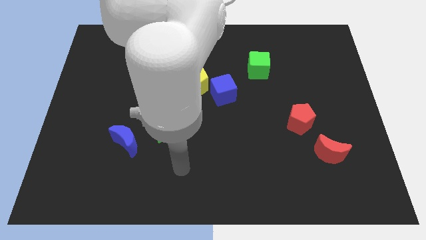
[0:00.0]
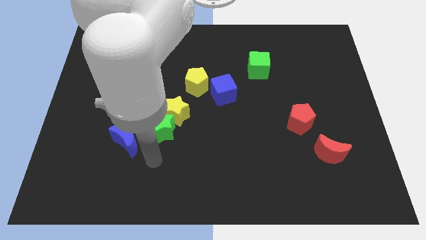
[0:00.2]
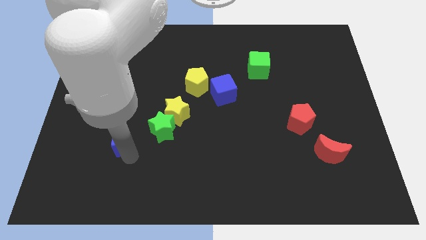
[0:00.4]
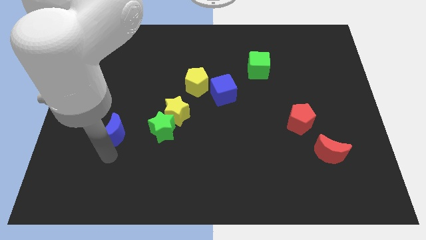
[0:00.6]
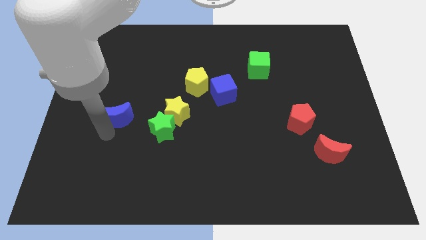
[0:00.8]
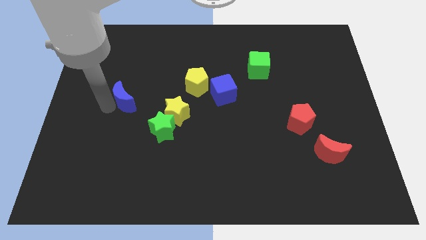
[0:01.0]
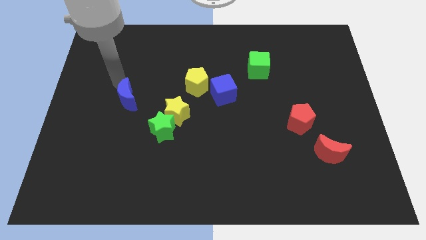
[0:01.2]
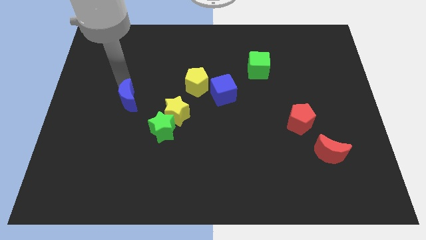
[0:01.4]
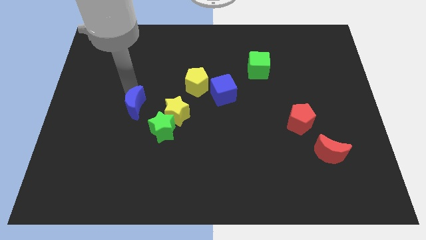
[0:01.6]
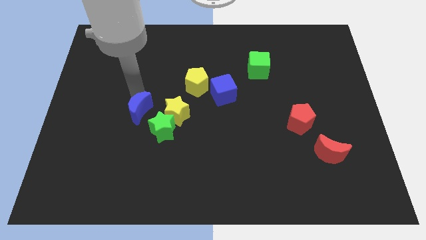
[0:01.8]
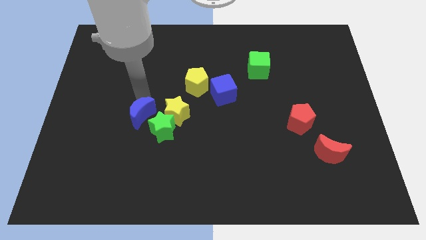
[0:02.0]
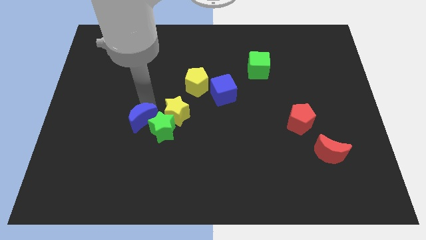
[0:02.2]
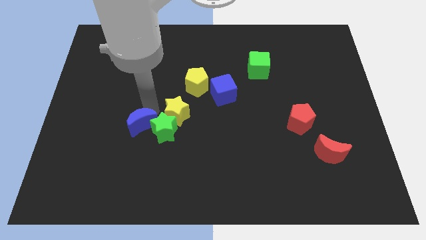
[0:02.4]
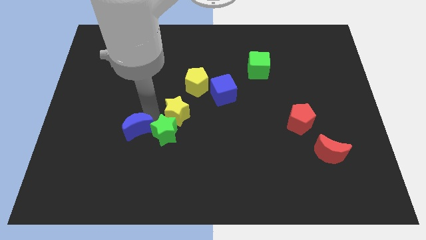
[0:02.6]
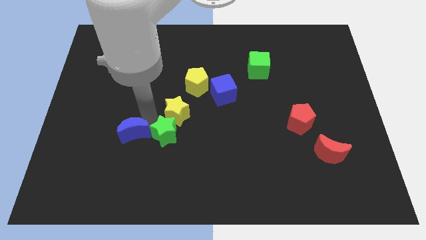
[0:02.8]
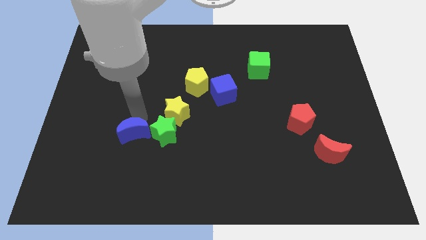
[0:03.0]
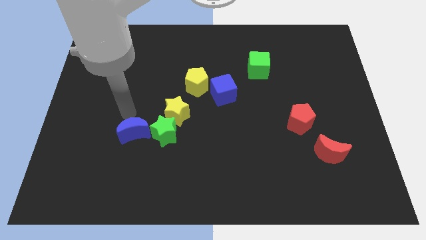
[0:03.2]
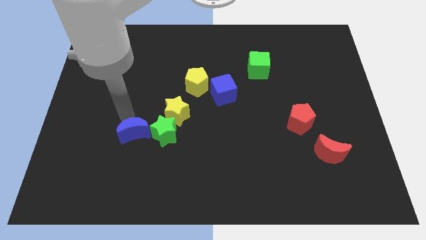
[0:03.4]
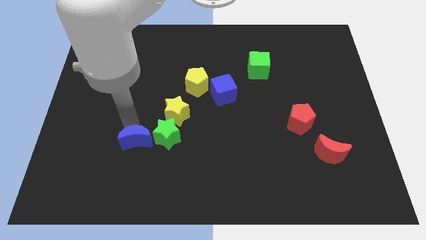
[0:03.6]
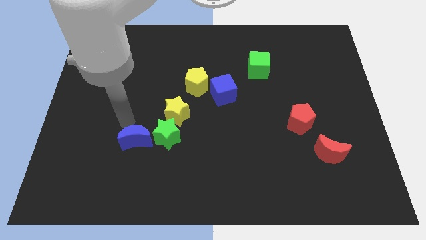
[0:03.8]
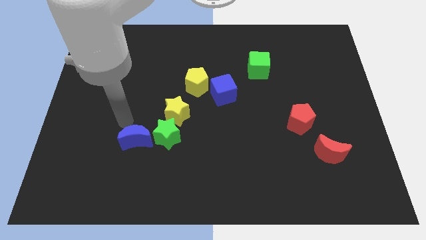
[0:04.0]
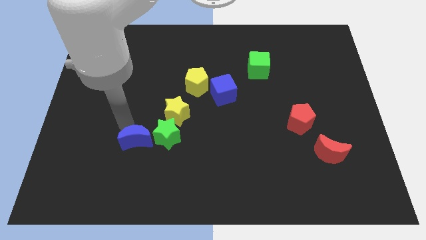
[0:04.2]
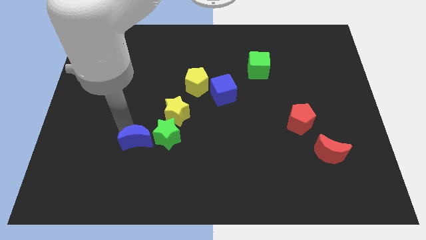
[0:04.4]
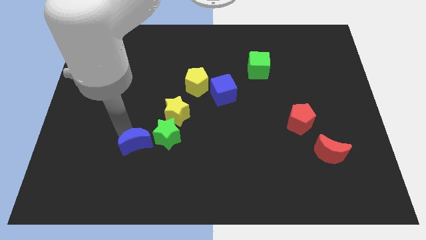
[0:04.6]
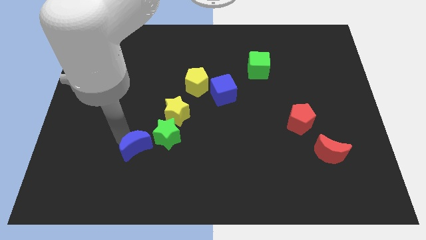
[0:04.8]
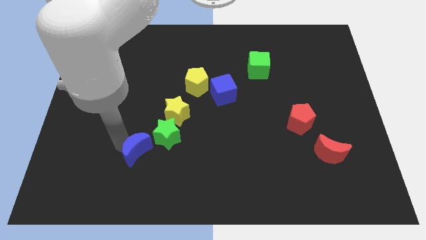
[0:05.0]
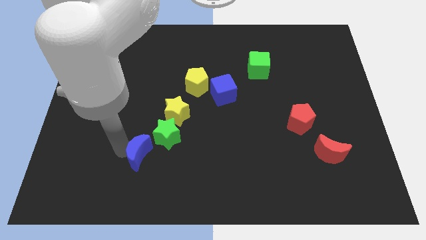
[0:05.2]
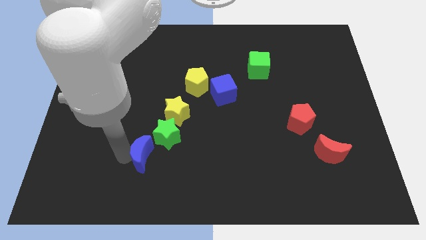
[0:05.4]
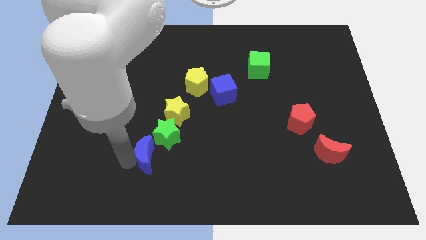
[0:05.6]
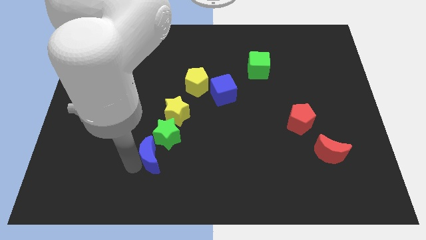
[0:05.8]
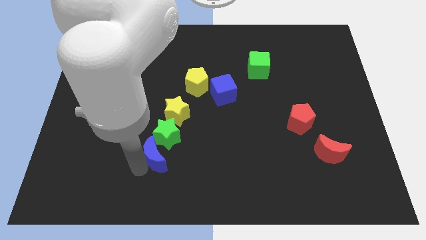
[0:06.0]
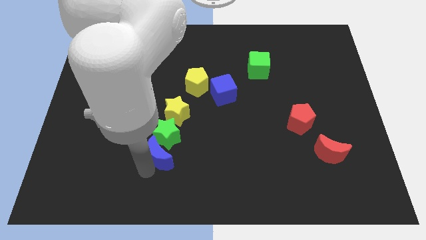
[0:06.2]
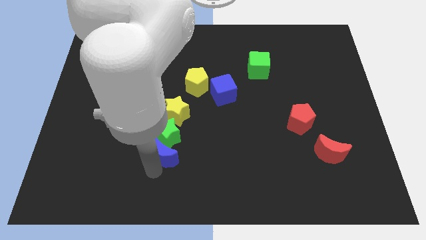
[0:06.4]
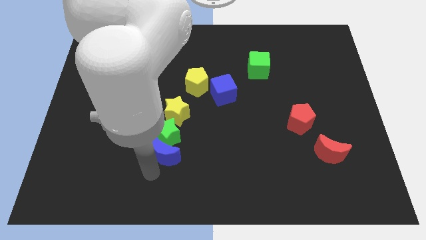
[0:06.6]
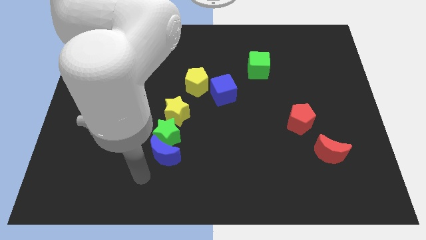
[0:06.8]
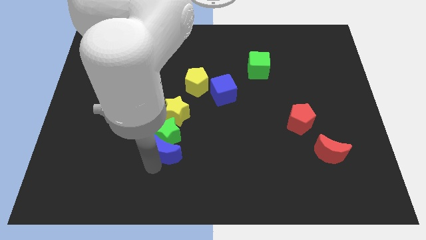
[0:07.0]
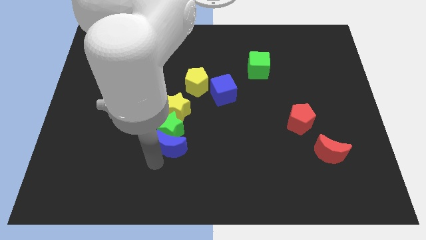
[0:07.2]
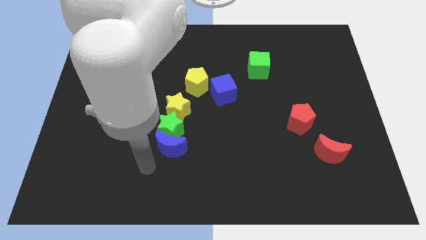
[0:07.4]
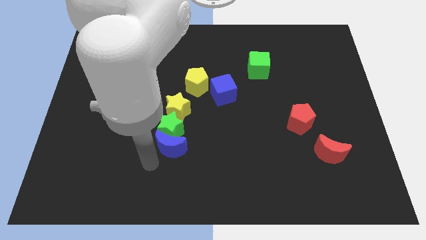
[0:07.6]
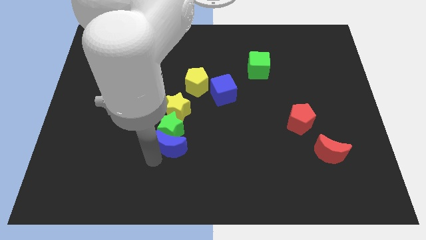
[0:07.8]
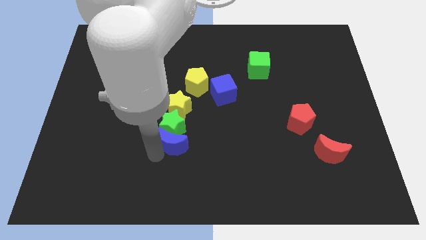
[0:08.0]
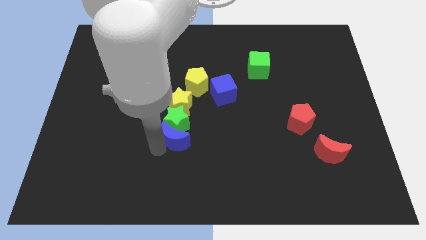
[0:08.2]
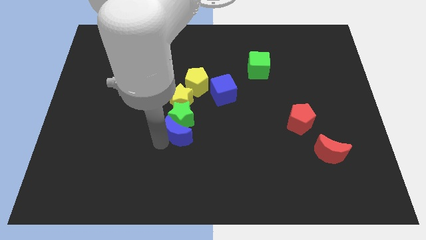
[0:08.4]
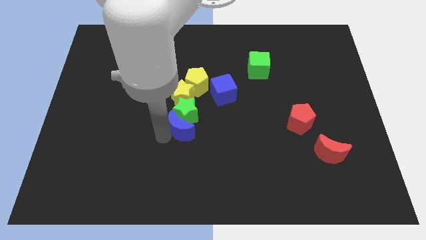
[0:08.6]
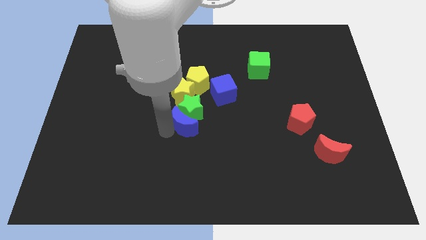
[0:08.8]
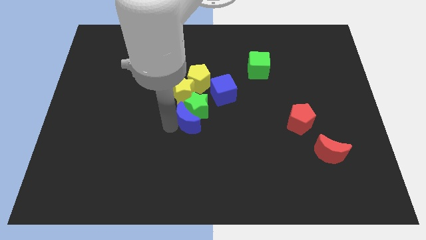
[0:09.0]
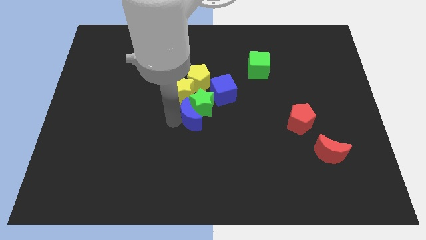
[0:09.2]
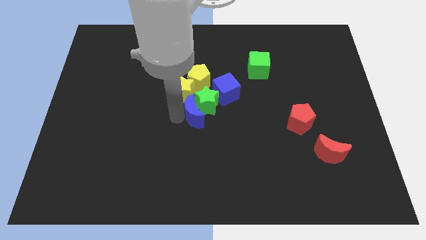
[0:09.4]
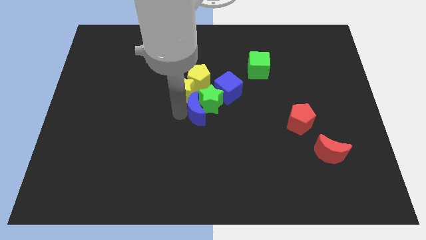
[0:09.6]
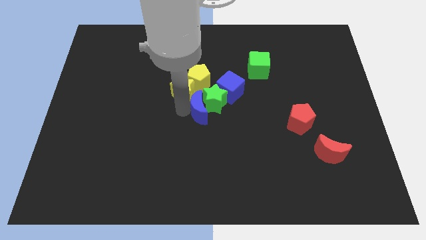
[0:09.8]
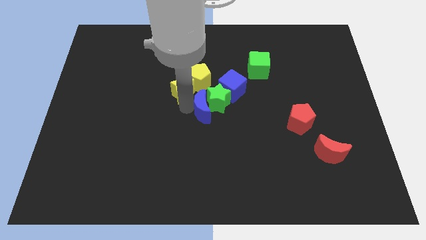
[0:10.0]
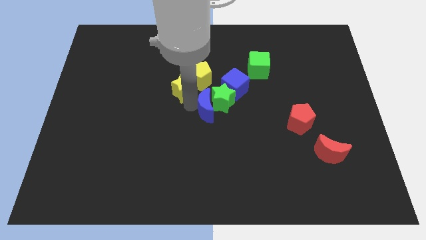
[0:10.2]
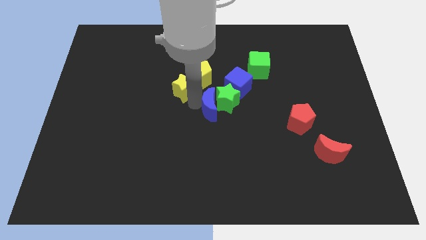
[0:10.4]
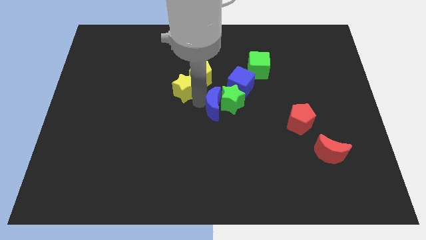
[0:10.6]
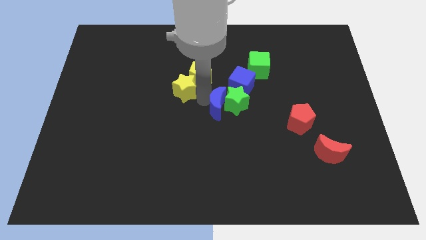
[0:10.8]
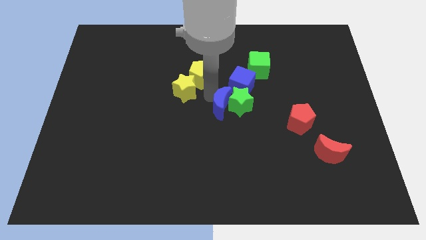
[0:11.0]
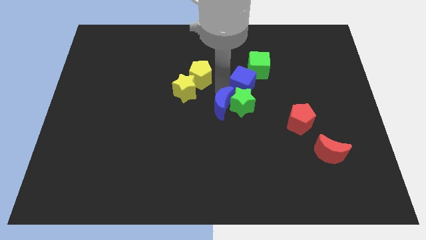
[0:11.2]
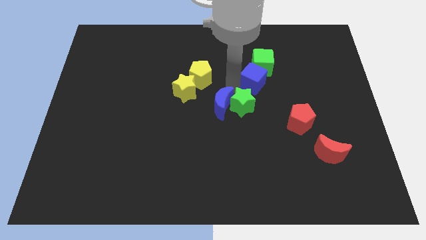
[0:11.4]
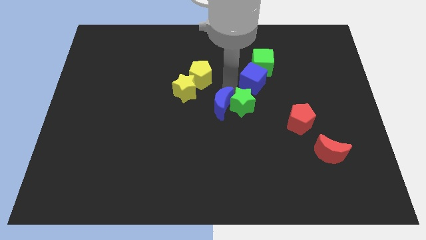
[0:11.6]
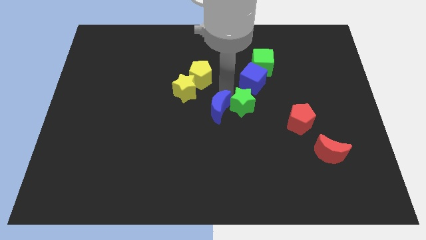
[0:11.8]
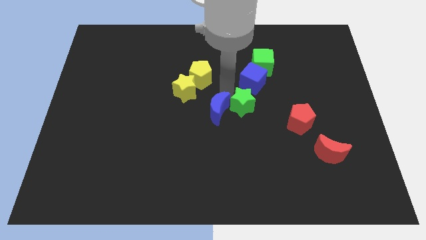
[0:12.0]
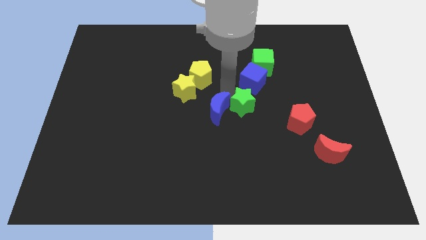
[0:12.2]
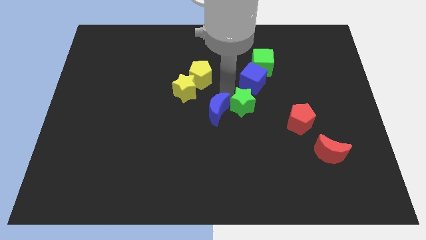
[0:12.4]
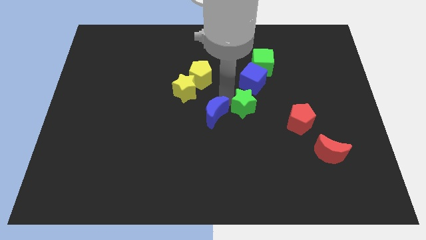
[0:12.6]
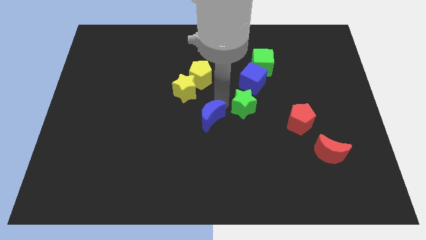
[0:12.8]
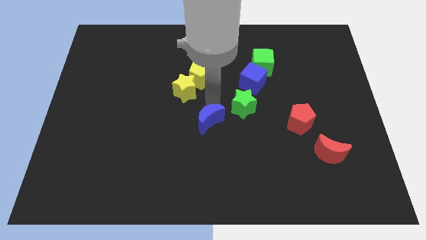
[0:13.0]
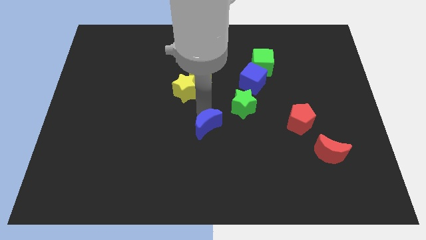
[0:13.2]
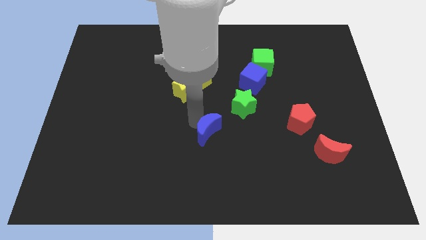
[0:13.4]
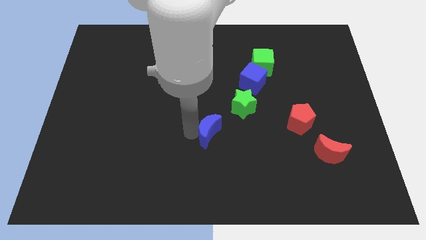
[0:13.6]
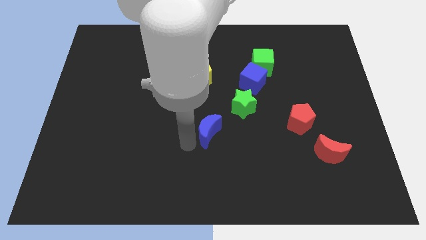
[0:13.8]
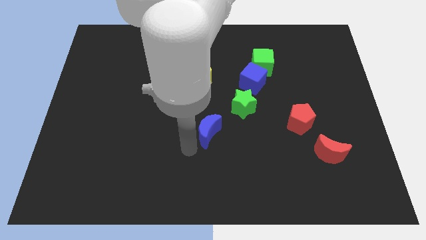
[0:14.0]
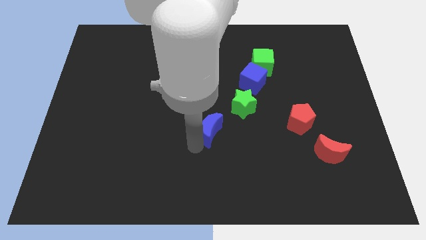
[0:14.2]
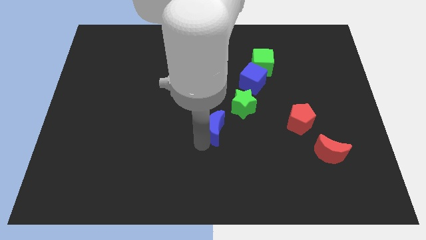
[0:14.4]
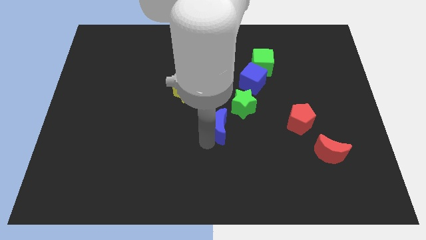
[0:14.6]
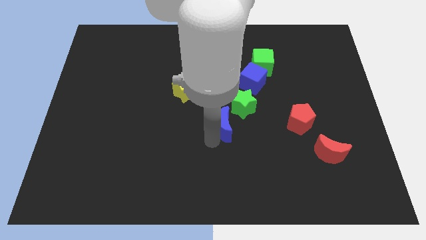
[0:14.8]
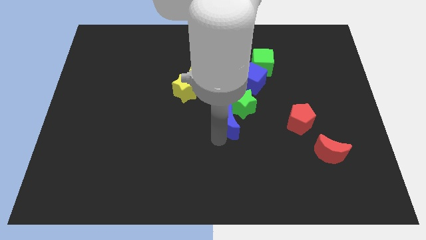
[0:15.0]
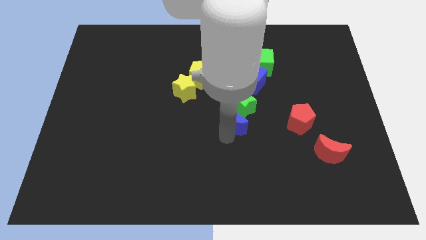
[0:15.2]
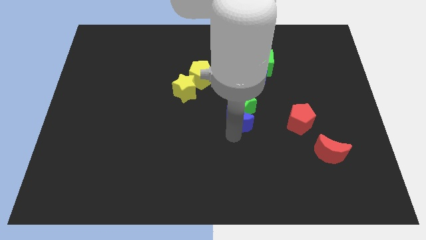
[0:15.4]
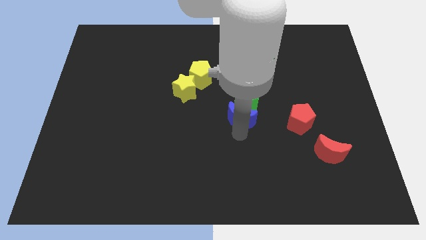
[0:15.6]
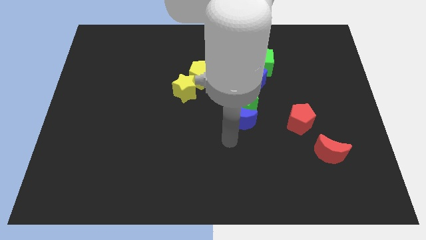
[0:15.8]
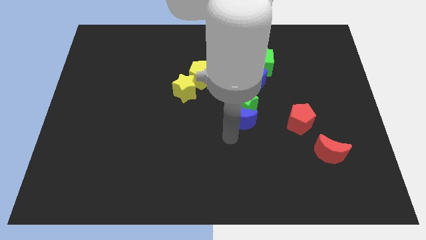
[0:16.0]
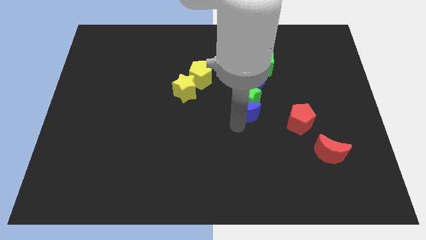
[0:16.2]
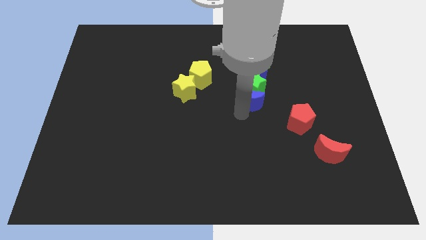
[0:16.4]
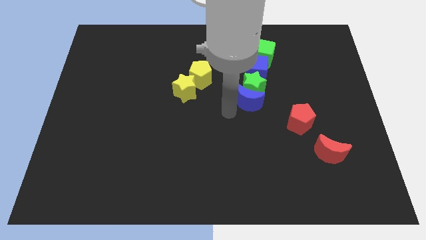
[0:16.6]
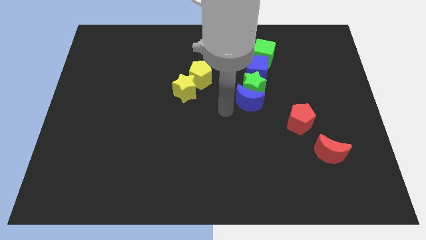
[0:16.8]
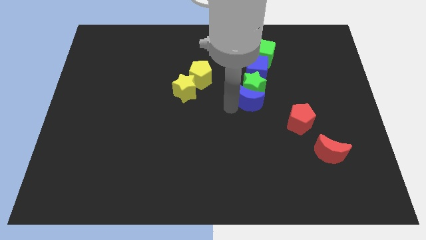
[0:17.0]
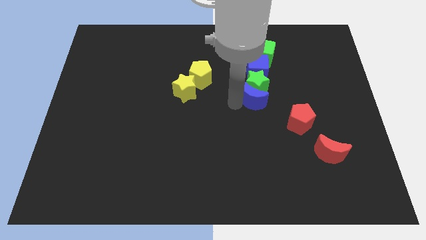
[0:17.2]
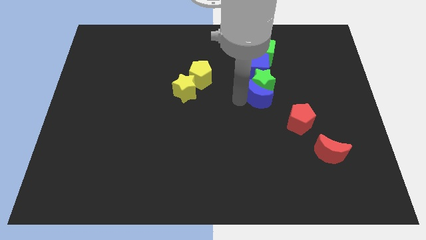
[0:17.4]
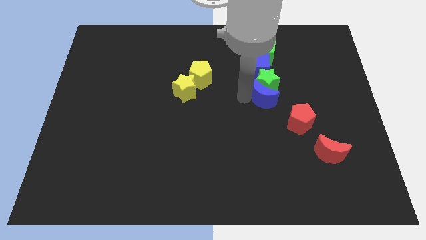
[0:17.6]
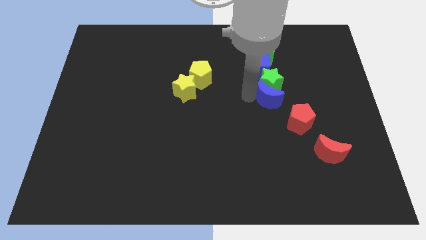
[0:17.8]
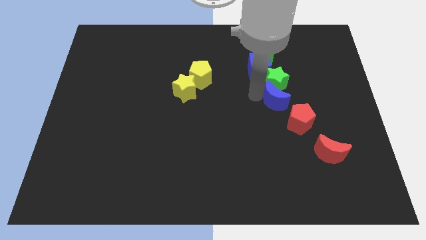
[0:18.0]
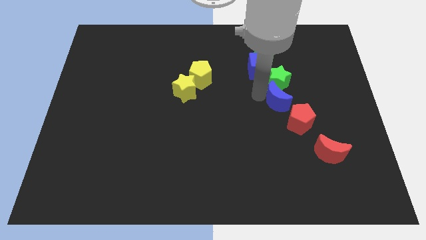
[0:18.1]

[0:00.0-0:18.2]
slide the blue moon above the red pentagon
